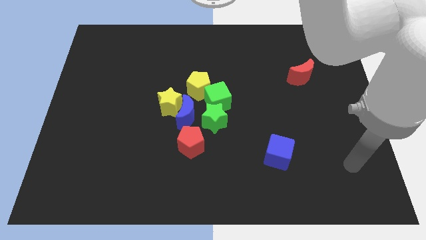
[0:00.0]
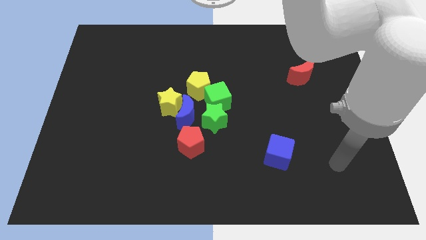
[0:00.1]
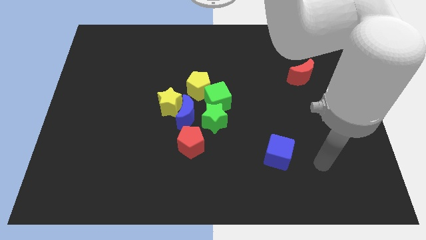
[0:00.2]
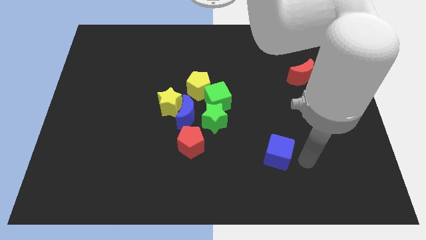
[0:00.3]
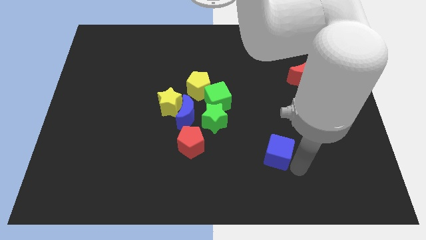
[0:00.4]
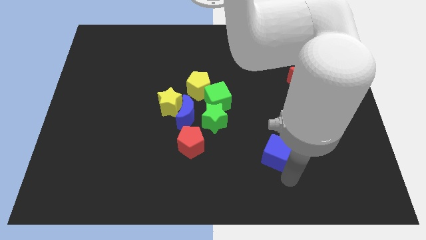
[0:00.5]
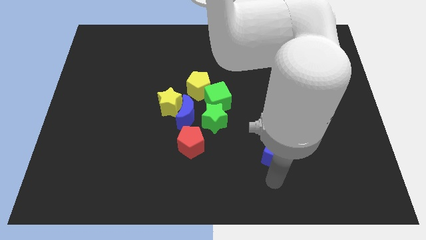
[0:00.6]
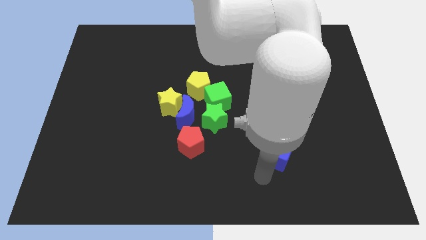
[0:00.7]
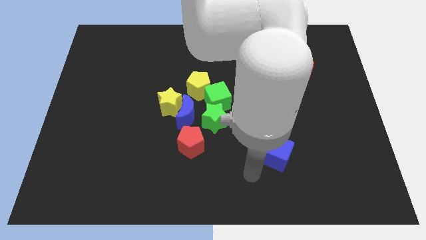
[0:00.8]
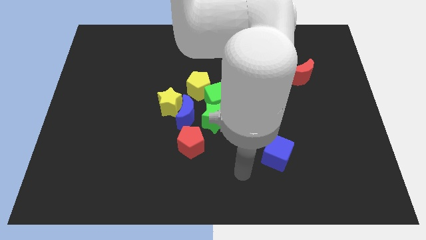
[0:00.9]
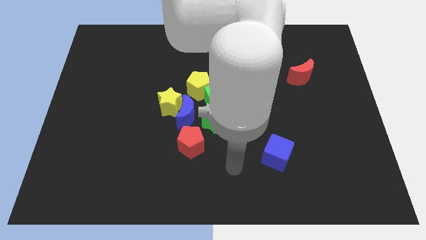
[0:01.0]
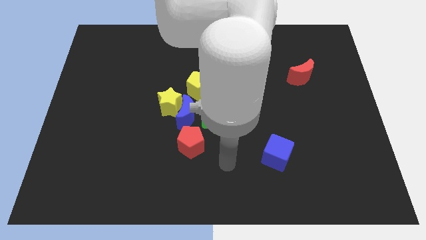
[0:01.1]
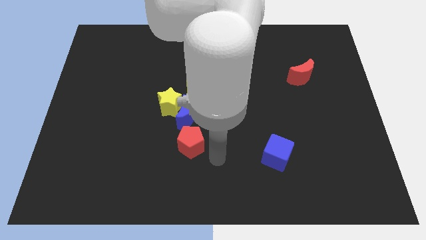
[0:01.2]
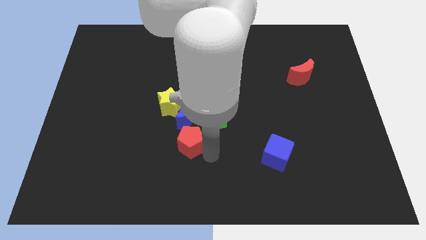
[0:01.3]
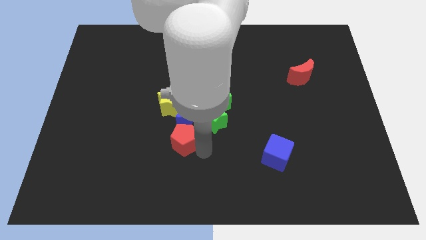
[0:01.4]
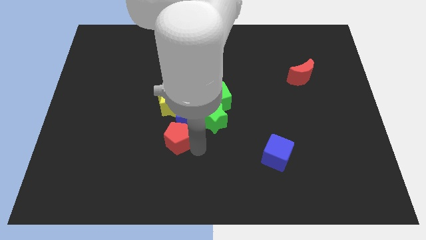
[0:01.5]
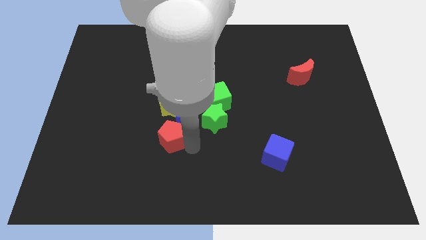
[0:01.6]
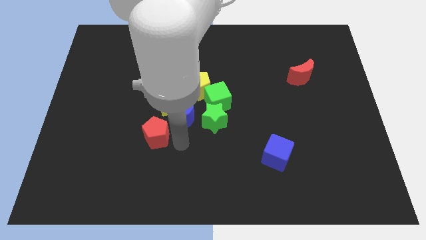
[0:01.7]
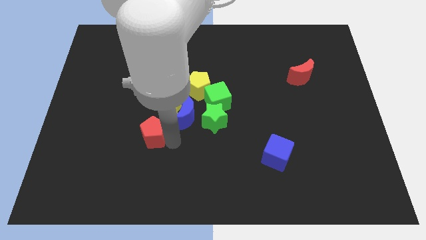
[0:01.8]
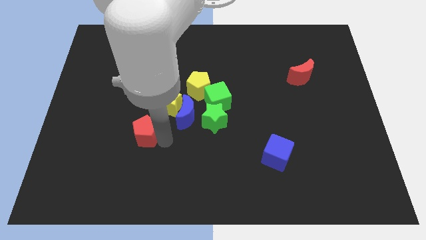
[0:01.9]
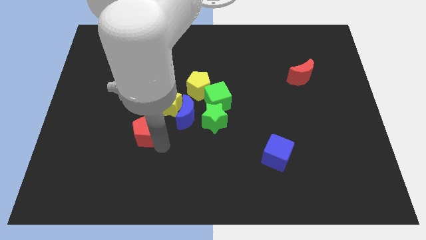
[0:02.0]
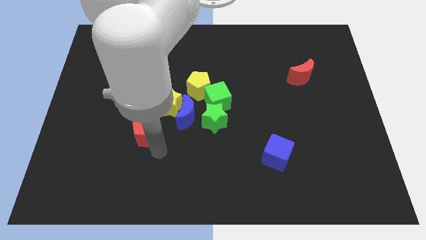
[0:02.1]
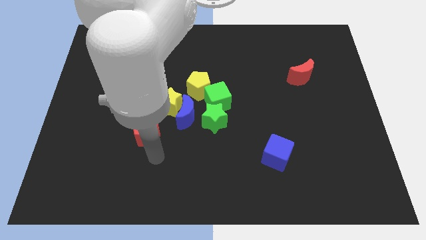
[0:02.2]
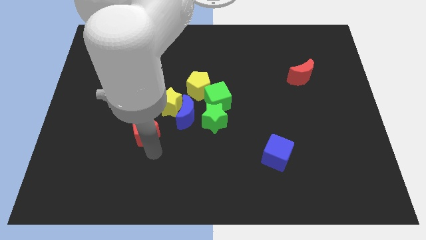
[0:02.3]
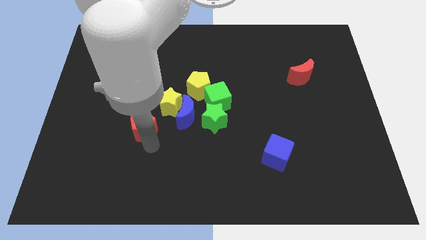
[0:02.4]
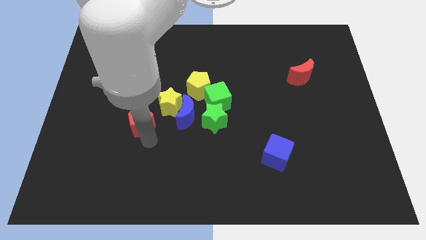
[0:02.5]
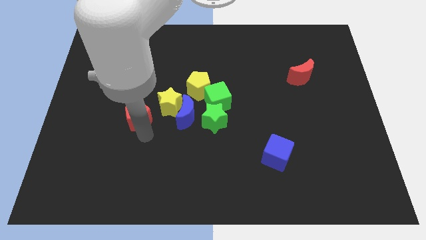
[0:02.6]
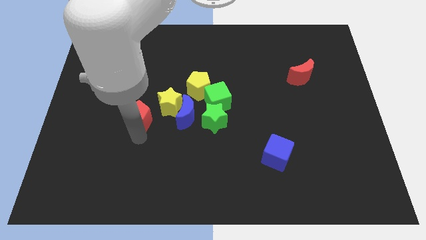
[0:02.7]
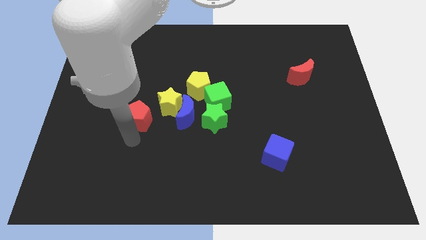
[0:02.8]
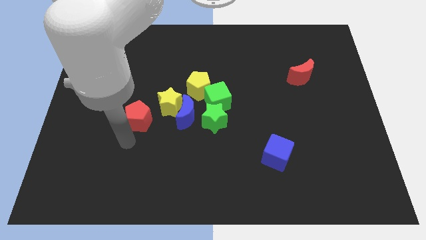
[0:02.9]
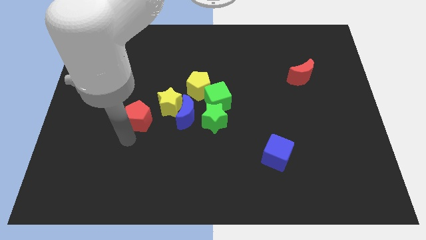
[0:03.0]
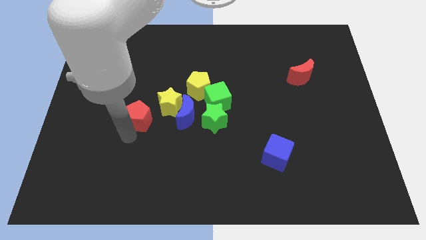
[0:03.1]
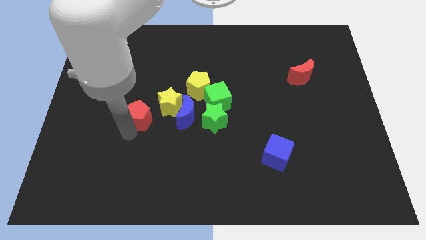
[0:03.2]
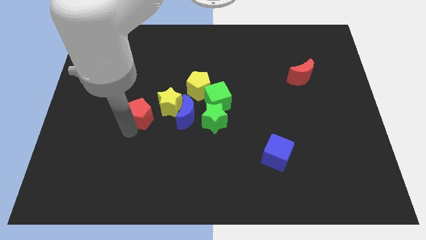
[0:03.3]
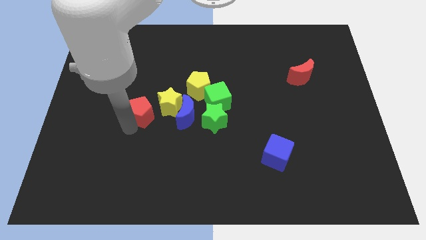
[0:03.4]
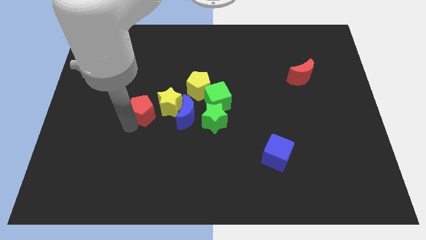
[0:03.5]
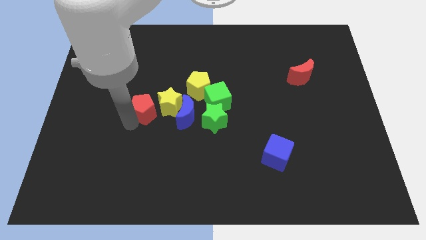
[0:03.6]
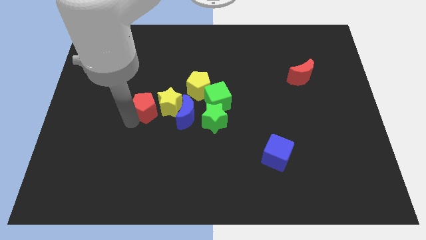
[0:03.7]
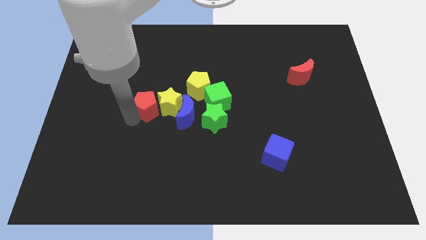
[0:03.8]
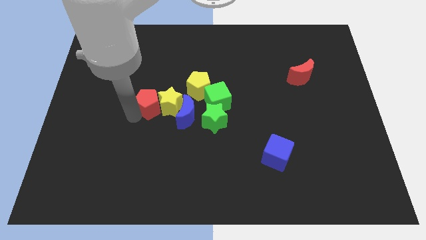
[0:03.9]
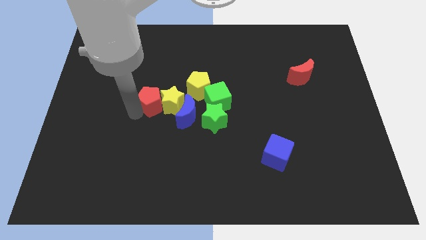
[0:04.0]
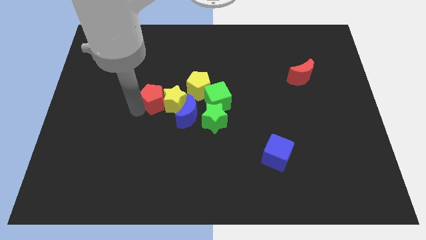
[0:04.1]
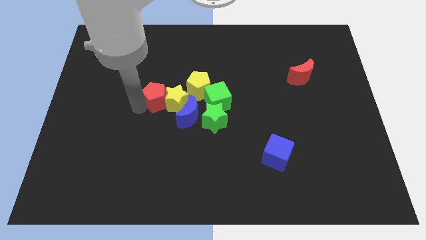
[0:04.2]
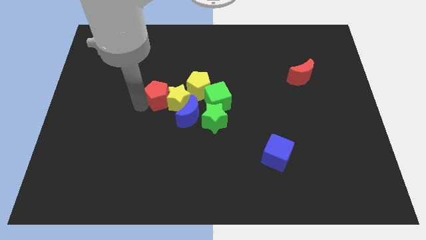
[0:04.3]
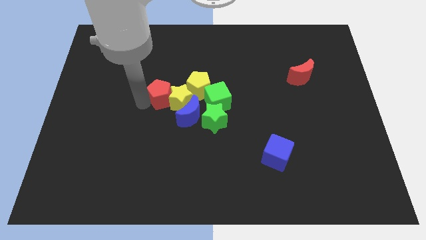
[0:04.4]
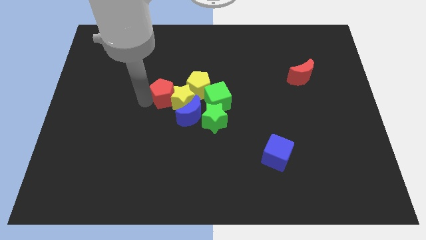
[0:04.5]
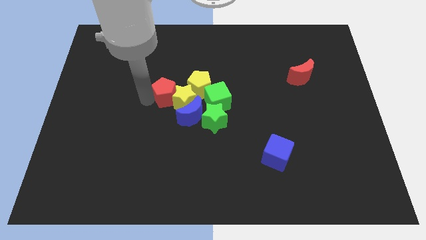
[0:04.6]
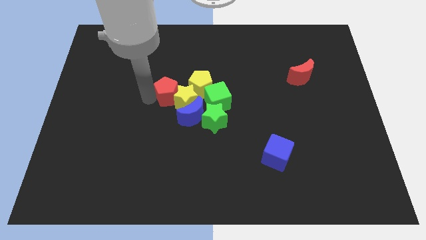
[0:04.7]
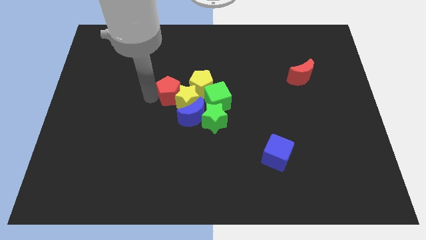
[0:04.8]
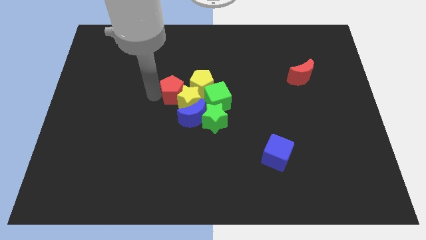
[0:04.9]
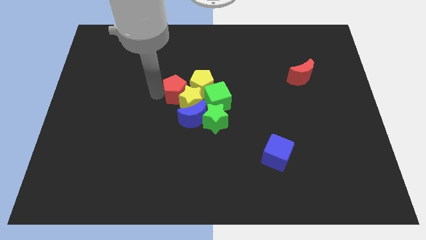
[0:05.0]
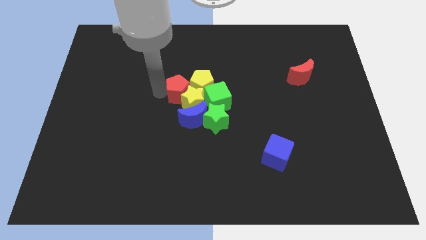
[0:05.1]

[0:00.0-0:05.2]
move the red pentagon towards the yellow pentagon

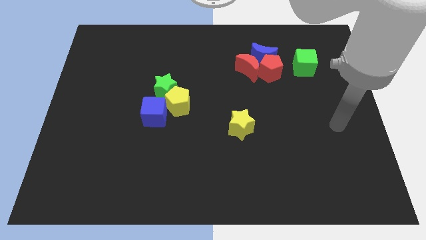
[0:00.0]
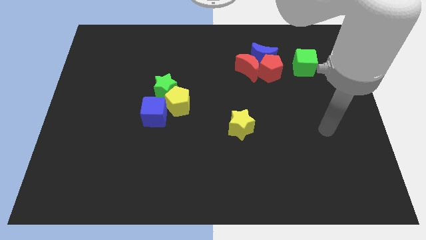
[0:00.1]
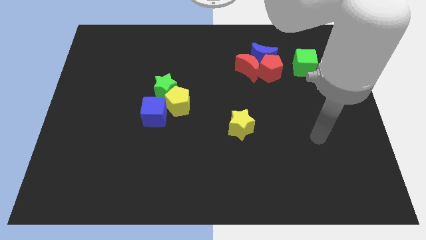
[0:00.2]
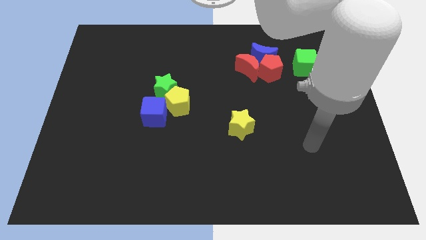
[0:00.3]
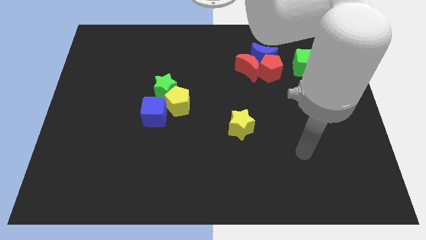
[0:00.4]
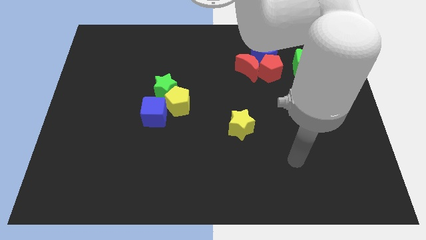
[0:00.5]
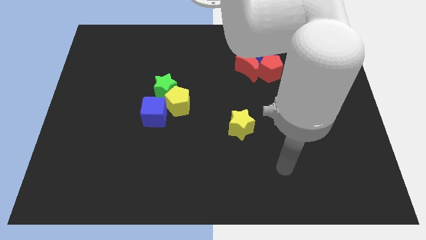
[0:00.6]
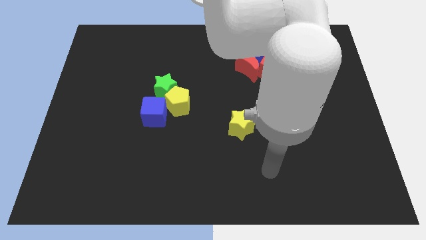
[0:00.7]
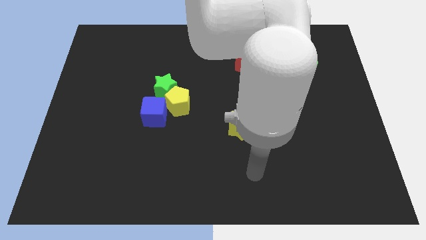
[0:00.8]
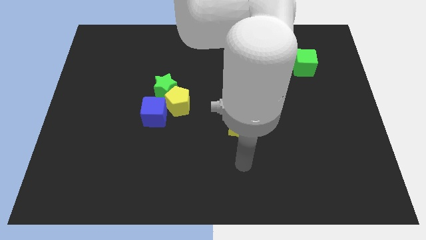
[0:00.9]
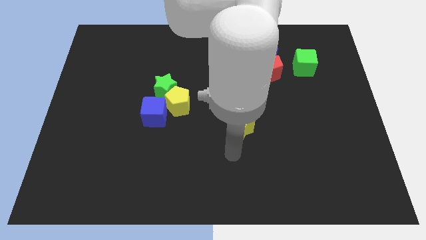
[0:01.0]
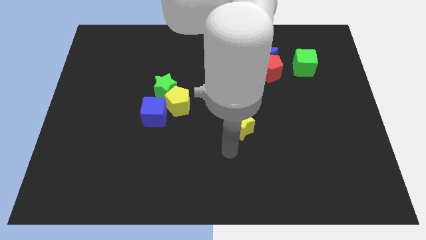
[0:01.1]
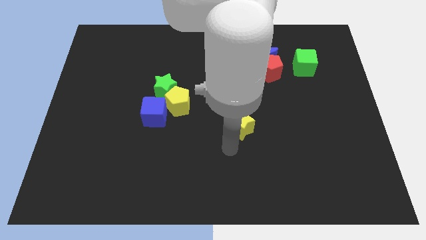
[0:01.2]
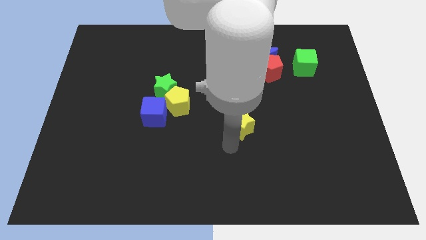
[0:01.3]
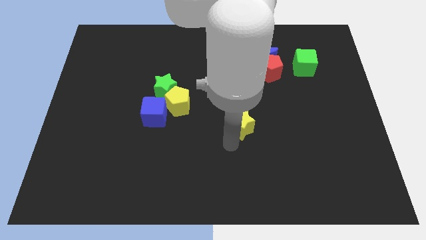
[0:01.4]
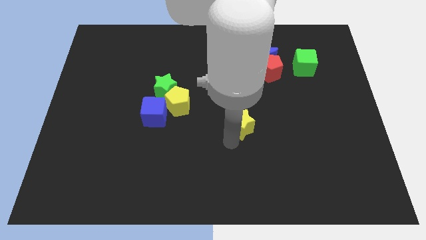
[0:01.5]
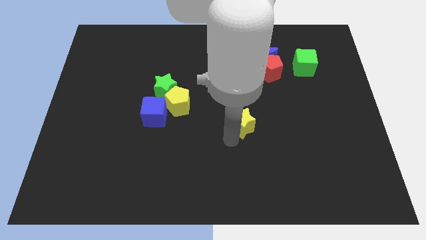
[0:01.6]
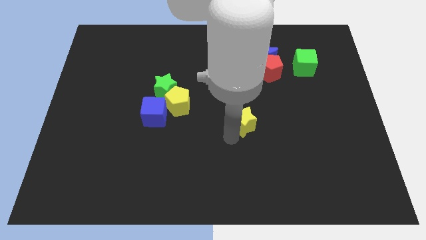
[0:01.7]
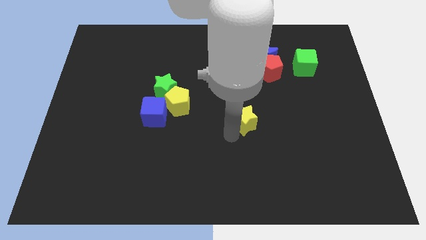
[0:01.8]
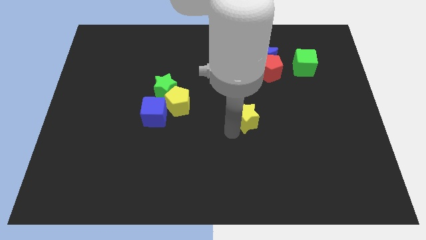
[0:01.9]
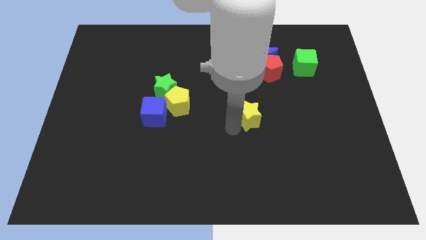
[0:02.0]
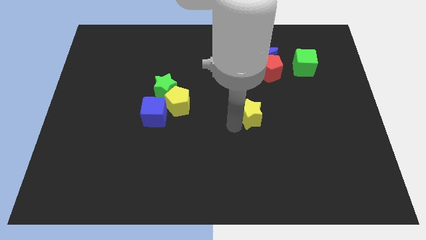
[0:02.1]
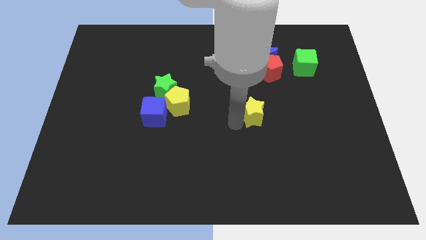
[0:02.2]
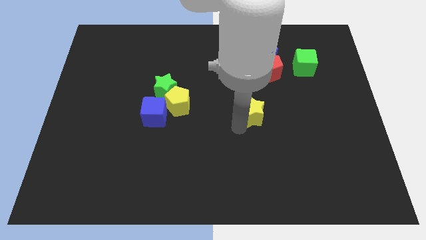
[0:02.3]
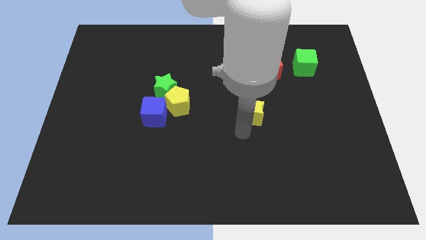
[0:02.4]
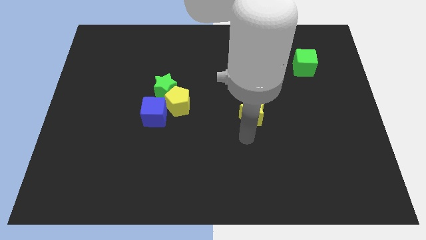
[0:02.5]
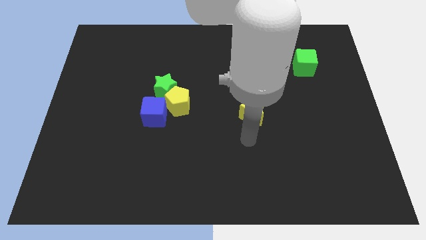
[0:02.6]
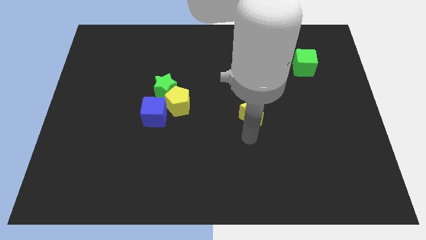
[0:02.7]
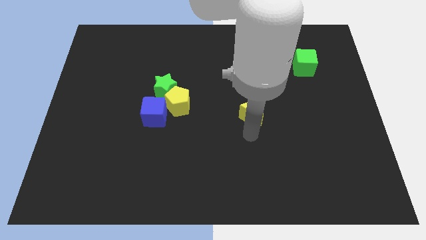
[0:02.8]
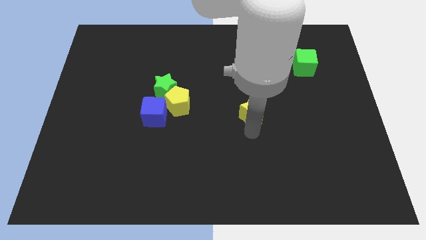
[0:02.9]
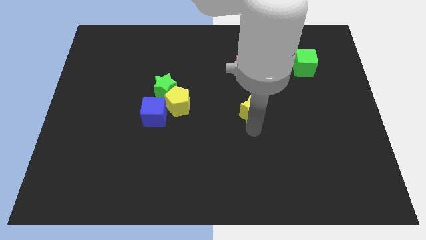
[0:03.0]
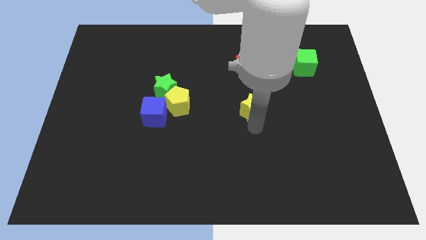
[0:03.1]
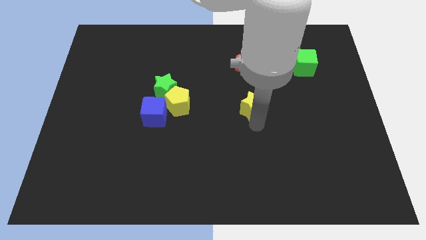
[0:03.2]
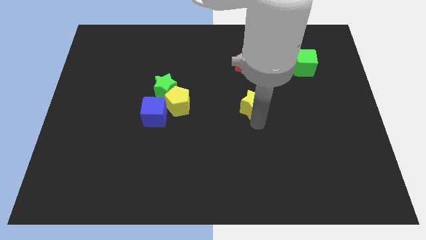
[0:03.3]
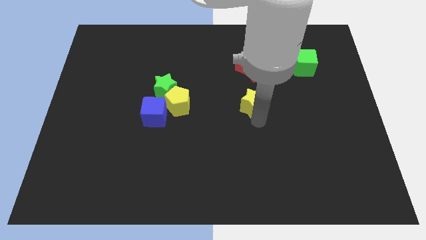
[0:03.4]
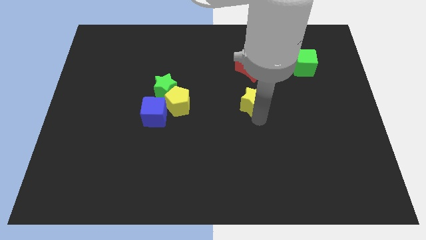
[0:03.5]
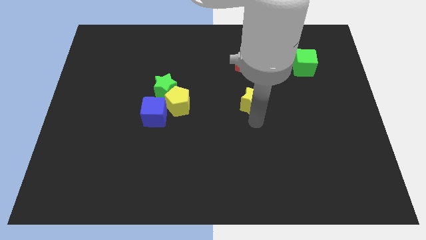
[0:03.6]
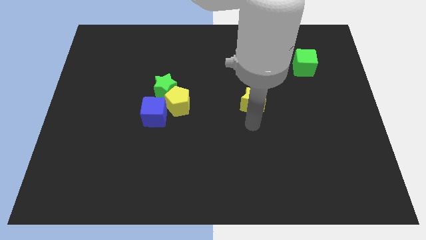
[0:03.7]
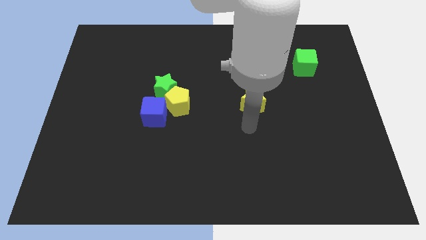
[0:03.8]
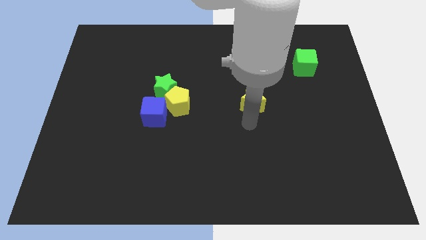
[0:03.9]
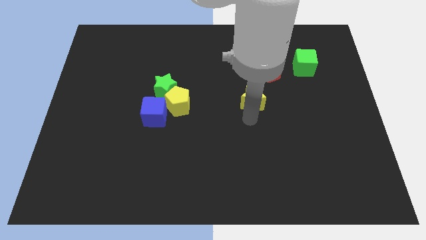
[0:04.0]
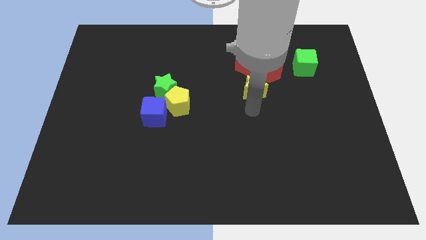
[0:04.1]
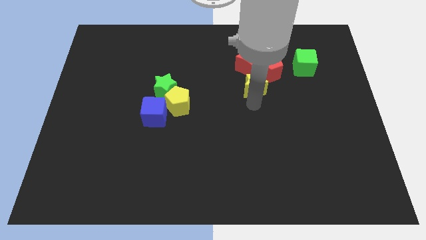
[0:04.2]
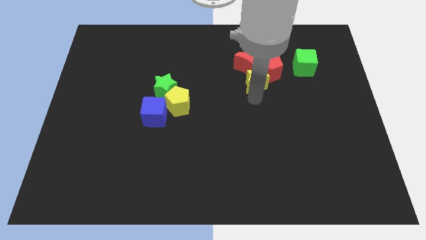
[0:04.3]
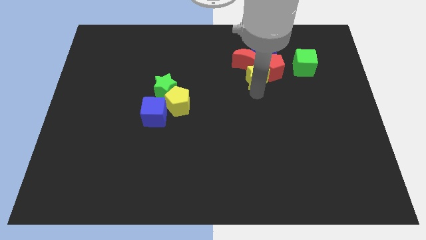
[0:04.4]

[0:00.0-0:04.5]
move the yellow star close to the red moon
